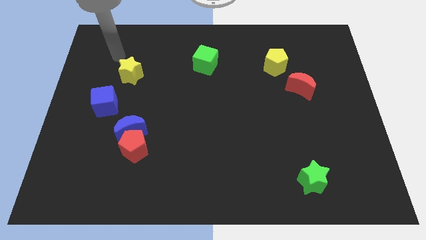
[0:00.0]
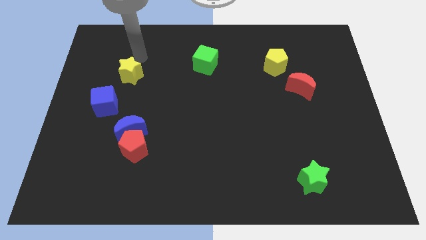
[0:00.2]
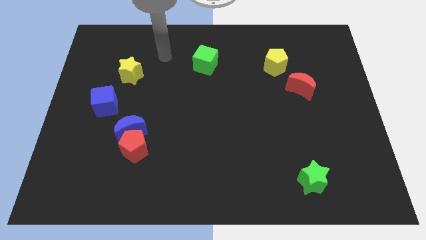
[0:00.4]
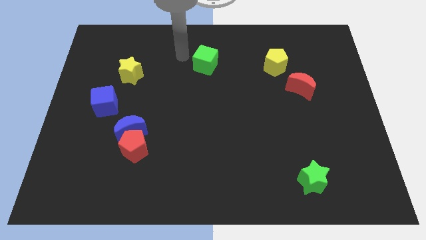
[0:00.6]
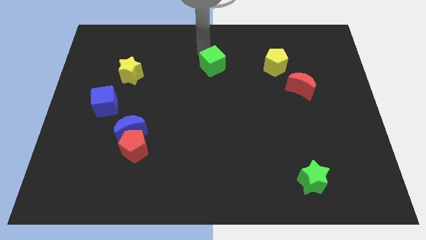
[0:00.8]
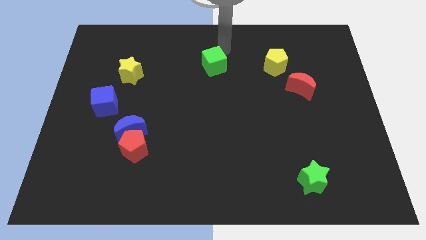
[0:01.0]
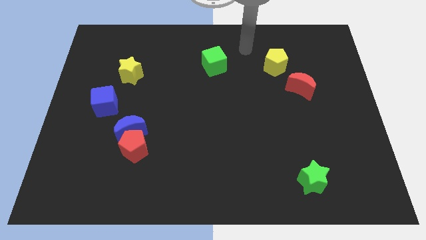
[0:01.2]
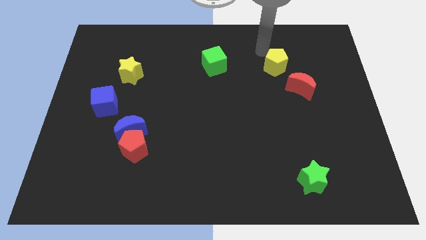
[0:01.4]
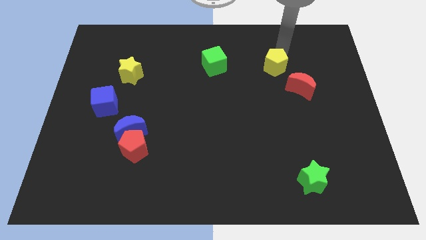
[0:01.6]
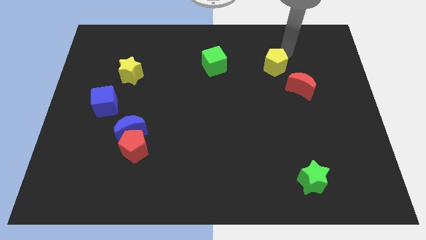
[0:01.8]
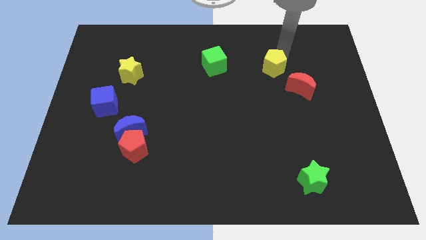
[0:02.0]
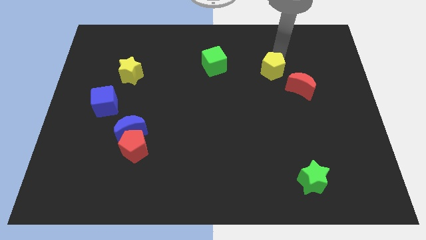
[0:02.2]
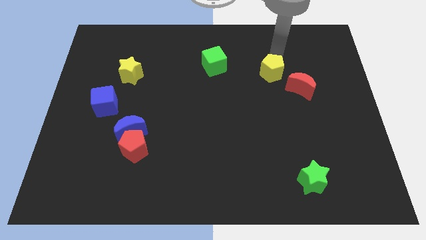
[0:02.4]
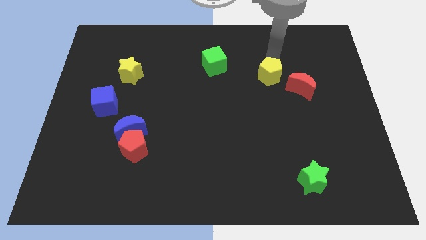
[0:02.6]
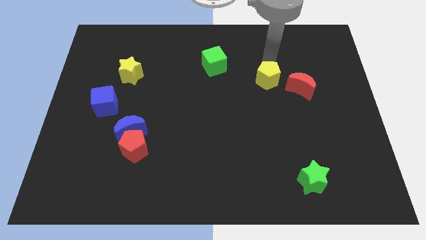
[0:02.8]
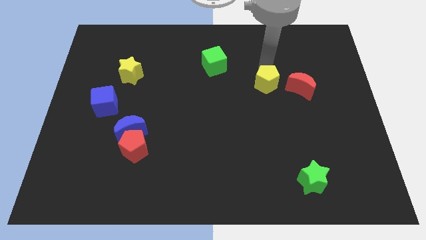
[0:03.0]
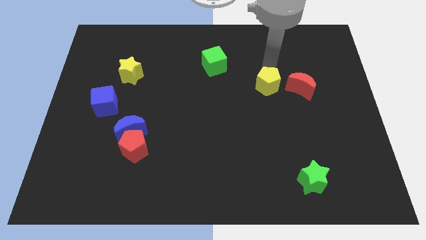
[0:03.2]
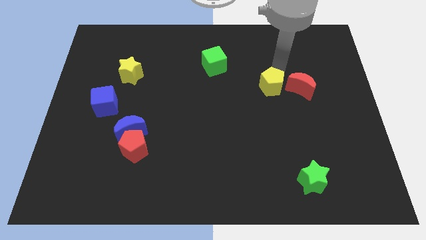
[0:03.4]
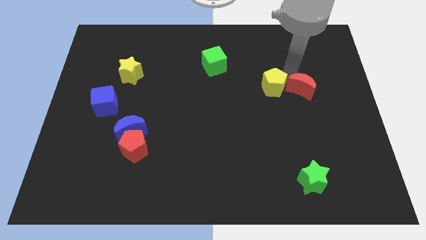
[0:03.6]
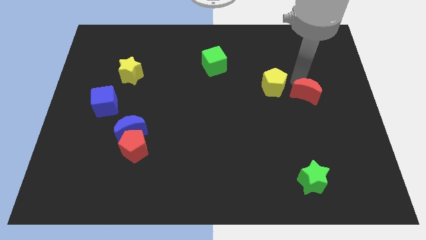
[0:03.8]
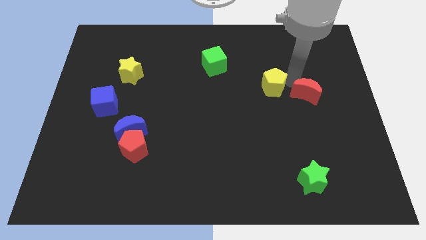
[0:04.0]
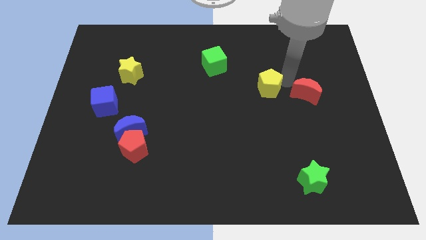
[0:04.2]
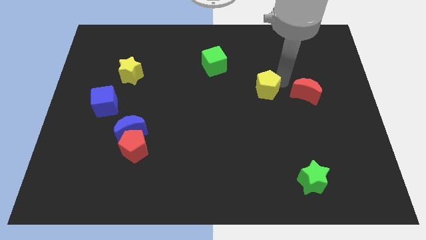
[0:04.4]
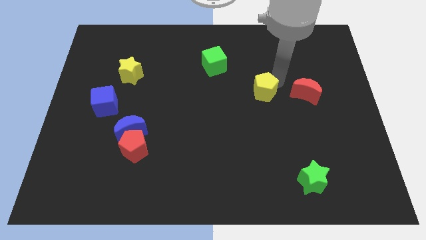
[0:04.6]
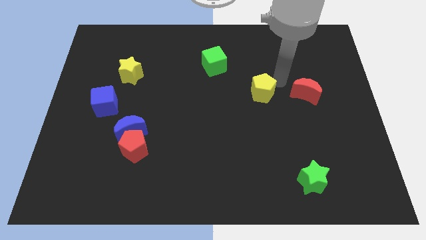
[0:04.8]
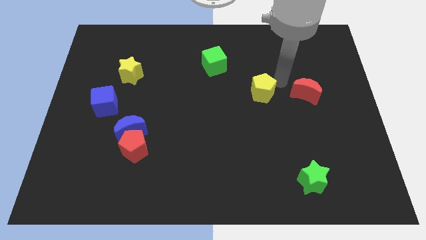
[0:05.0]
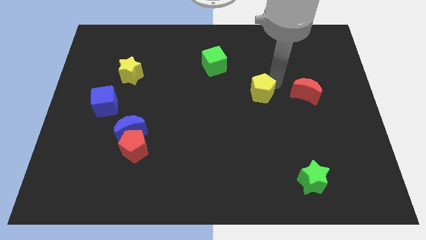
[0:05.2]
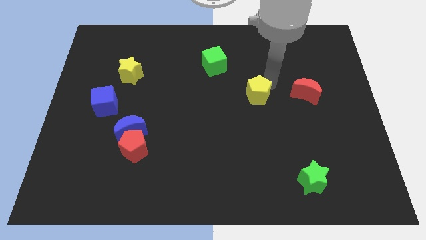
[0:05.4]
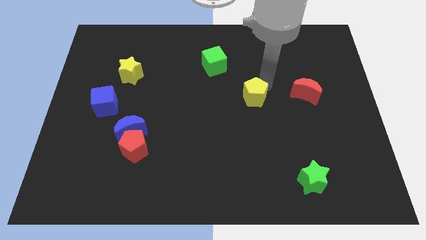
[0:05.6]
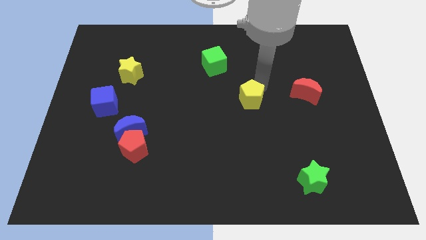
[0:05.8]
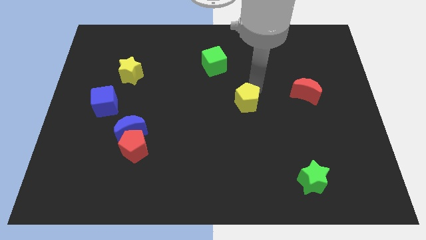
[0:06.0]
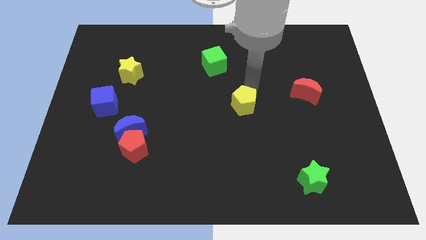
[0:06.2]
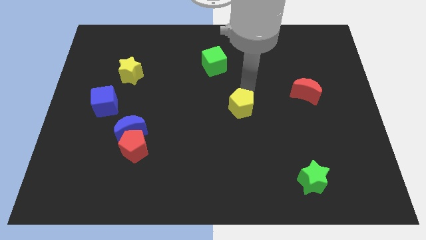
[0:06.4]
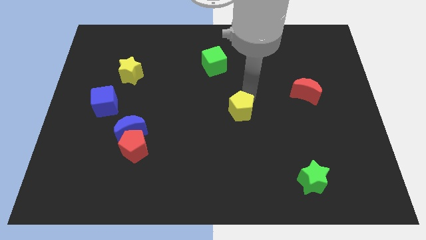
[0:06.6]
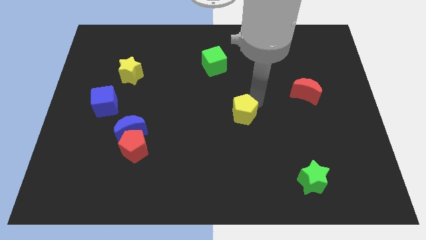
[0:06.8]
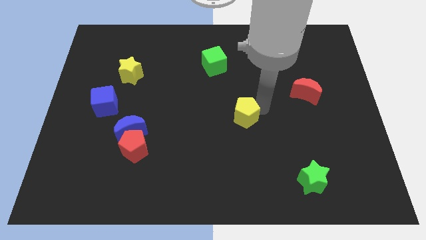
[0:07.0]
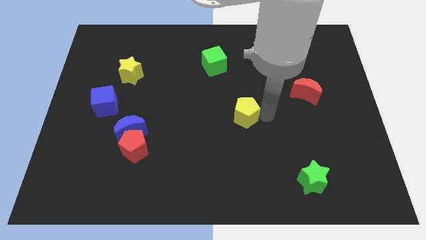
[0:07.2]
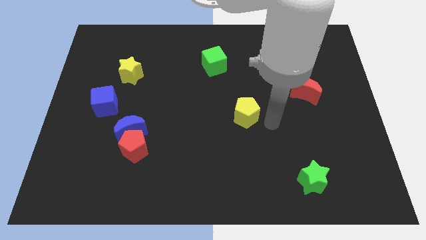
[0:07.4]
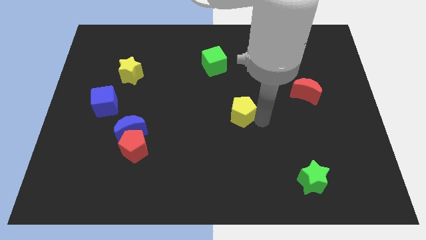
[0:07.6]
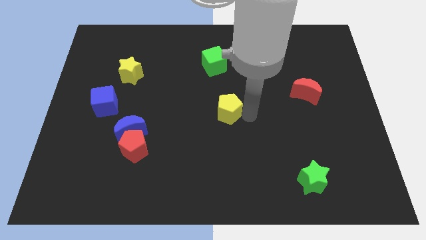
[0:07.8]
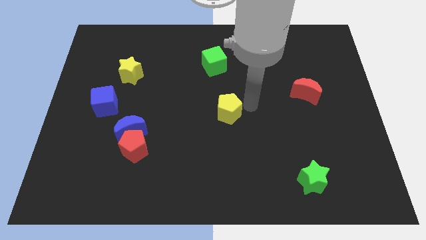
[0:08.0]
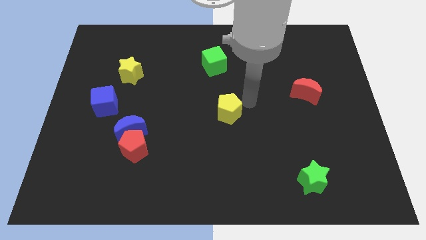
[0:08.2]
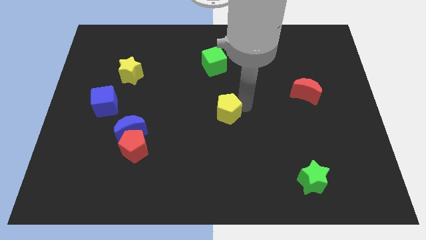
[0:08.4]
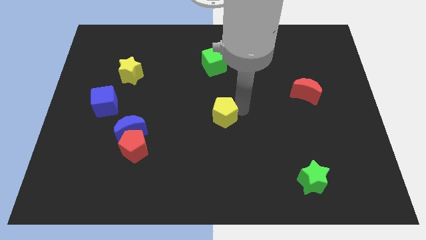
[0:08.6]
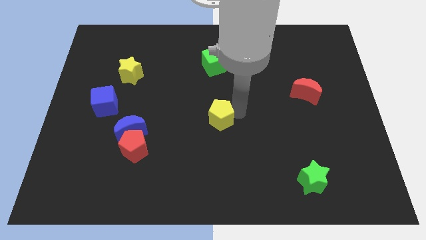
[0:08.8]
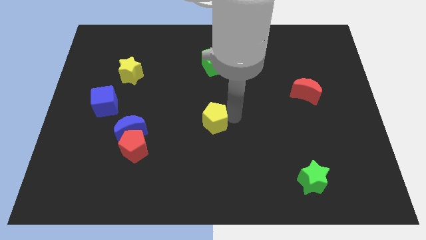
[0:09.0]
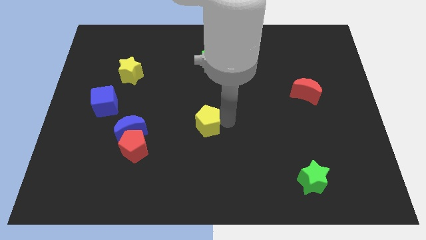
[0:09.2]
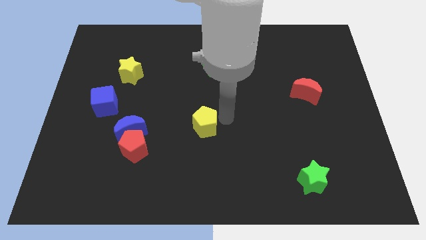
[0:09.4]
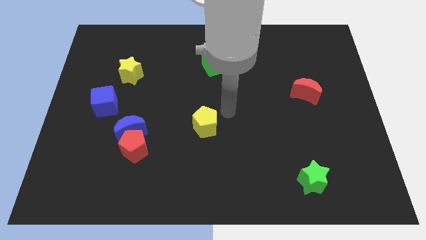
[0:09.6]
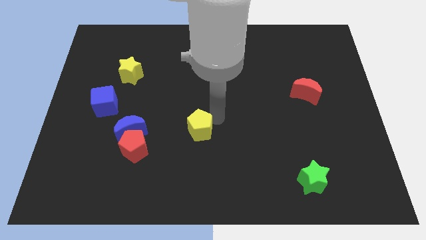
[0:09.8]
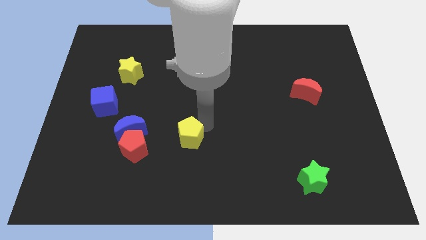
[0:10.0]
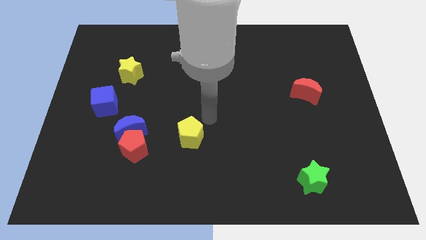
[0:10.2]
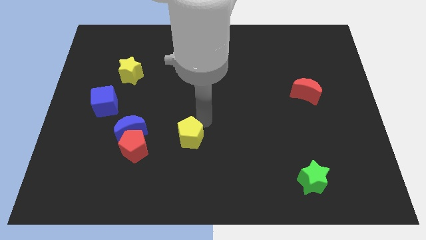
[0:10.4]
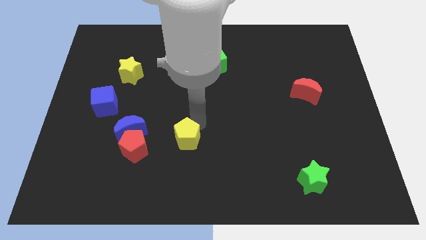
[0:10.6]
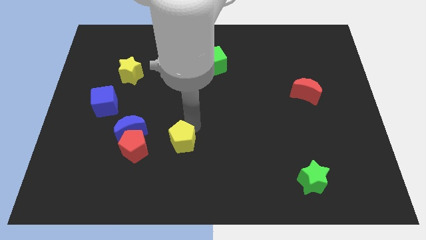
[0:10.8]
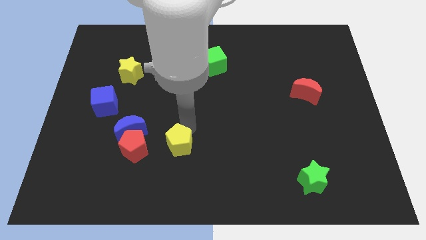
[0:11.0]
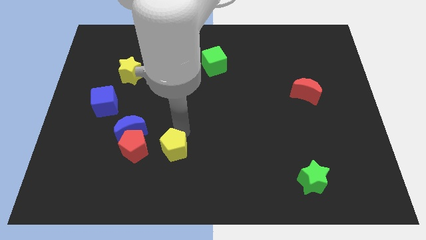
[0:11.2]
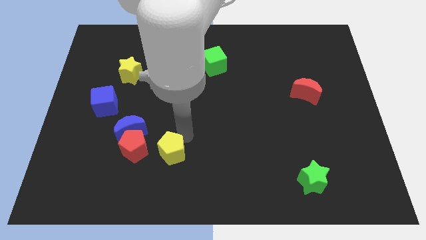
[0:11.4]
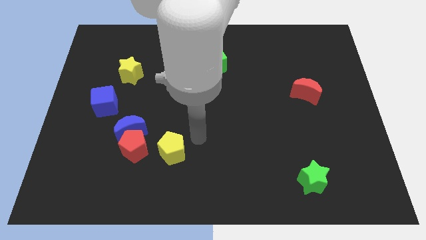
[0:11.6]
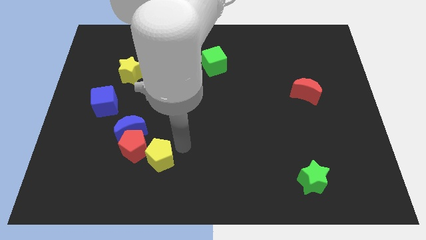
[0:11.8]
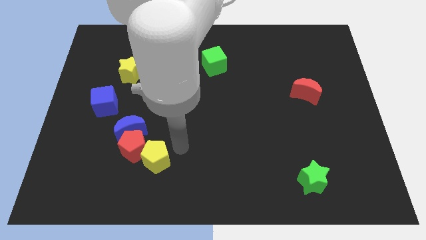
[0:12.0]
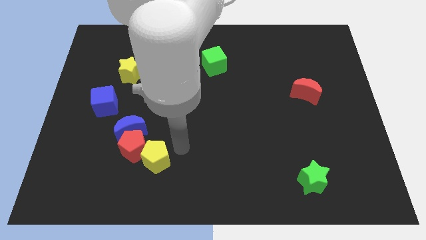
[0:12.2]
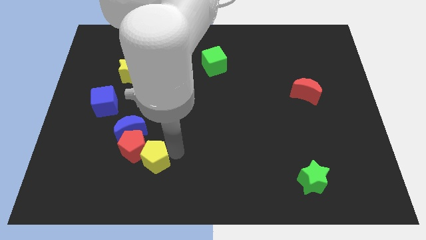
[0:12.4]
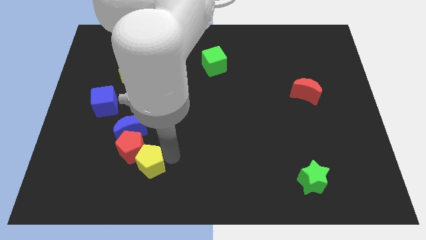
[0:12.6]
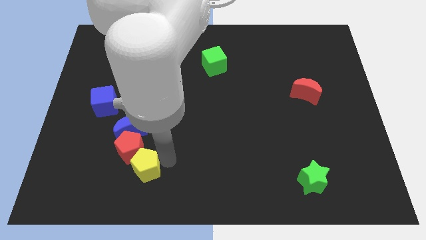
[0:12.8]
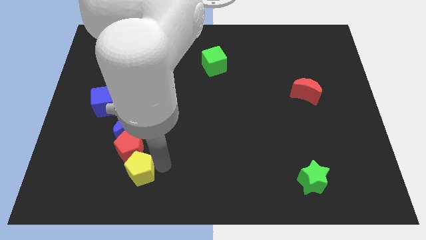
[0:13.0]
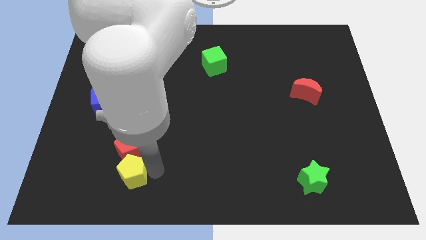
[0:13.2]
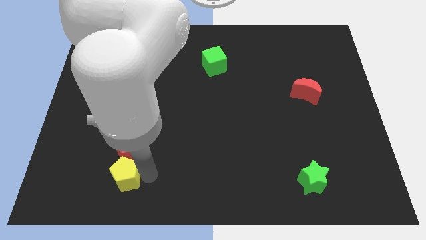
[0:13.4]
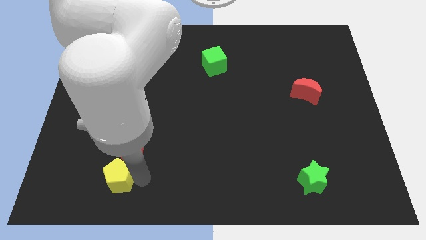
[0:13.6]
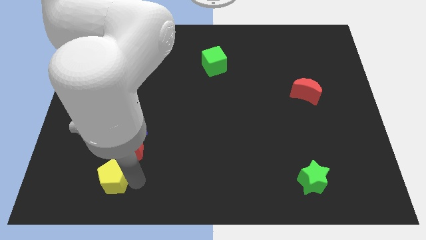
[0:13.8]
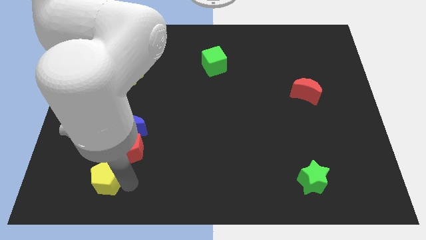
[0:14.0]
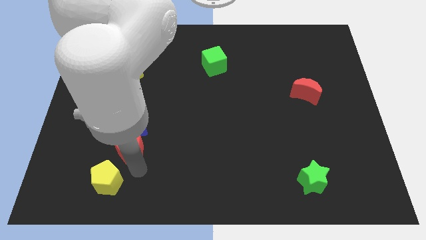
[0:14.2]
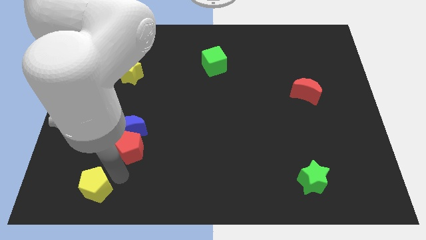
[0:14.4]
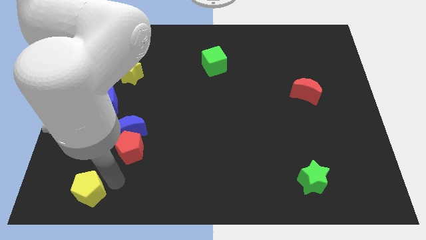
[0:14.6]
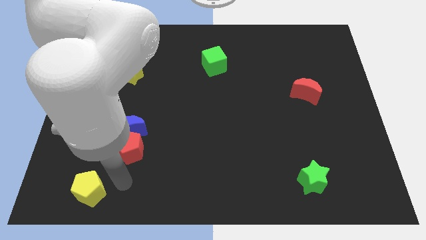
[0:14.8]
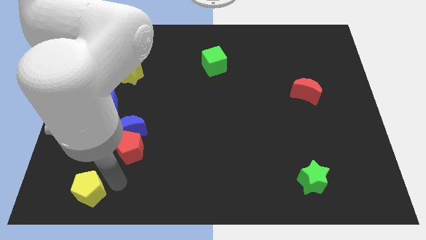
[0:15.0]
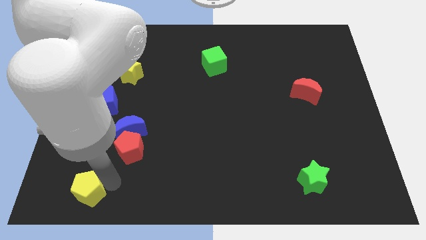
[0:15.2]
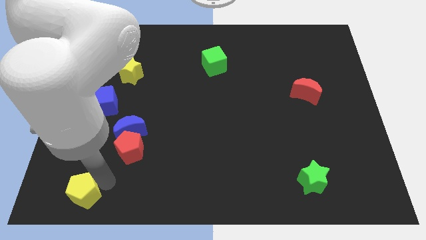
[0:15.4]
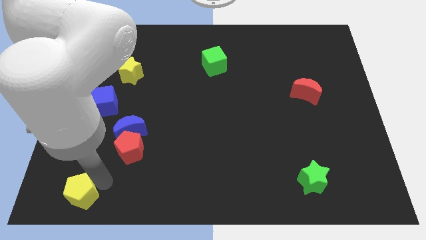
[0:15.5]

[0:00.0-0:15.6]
put the yellow pentagon to the lower left corner
